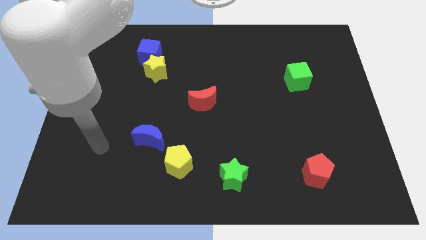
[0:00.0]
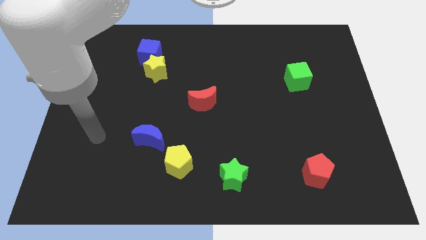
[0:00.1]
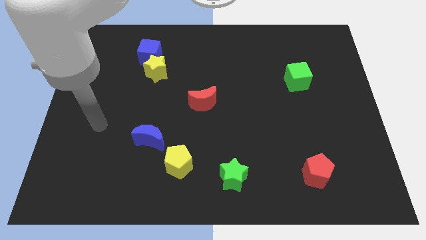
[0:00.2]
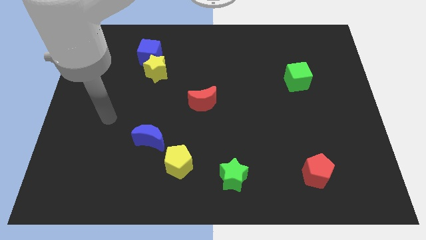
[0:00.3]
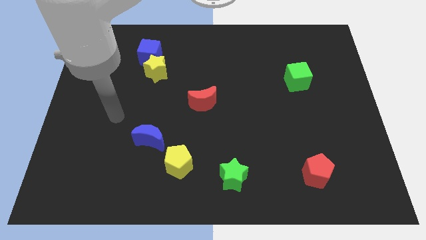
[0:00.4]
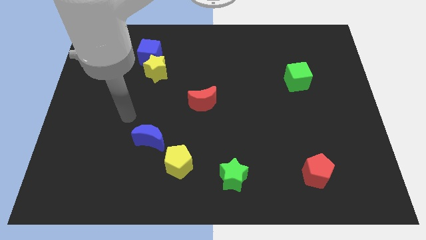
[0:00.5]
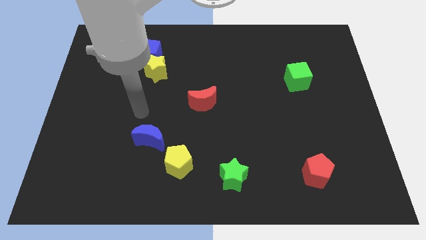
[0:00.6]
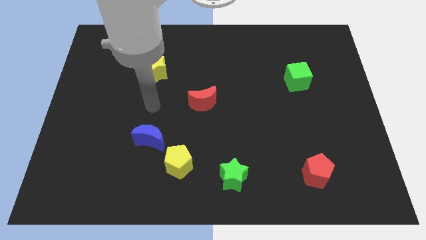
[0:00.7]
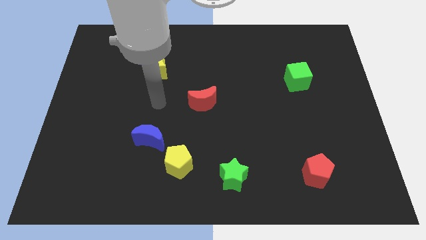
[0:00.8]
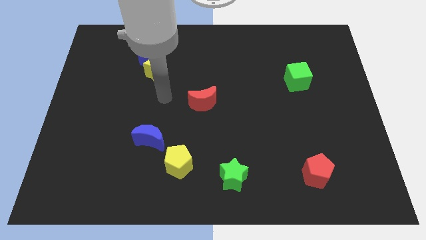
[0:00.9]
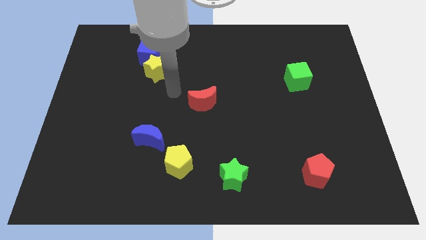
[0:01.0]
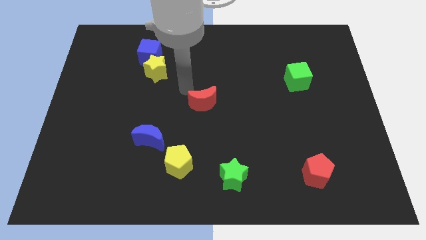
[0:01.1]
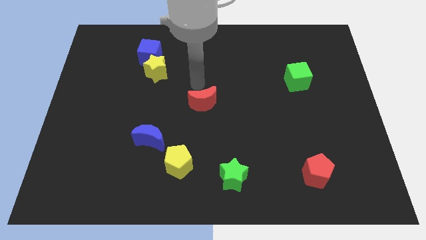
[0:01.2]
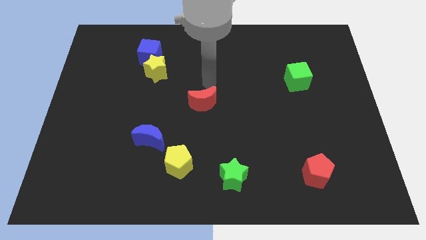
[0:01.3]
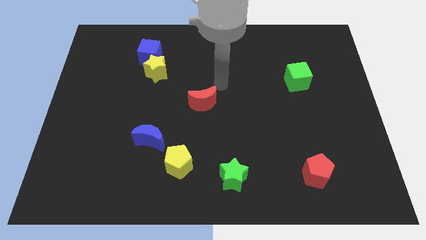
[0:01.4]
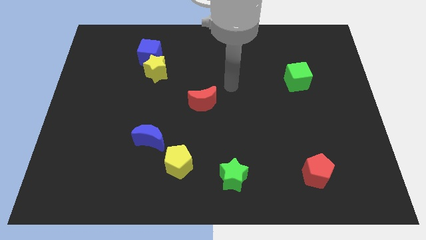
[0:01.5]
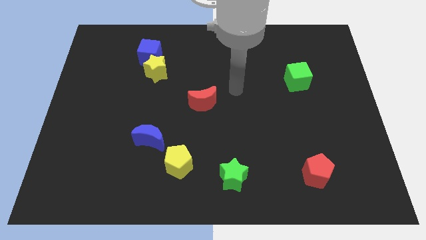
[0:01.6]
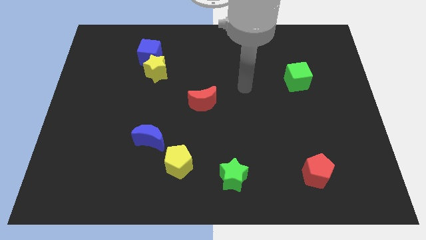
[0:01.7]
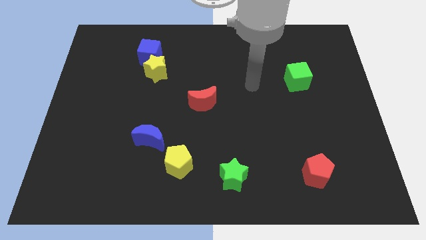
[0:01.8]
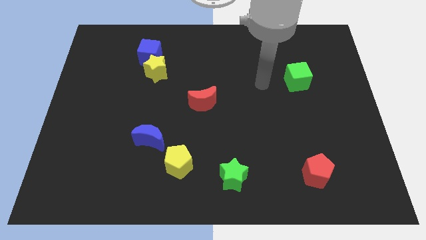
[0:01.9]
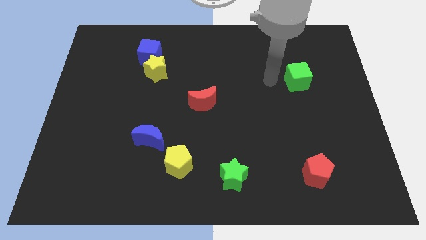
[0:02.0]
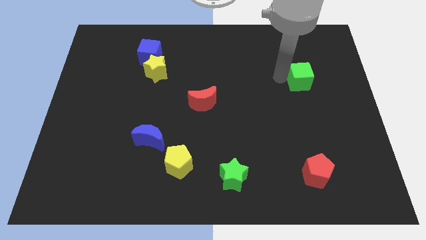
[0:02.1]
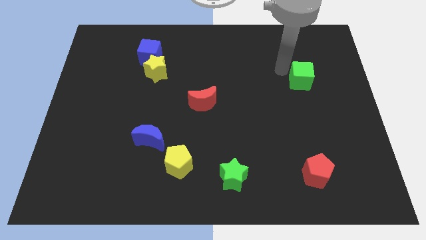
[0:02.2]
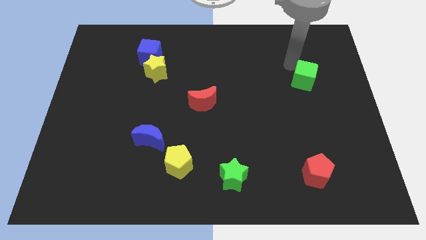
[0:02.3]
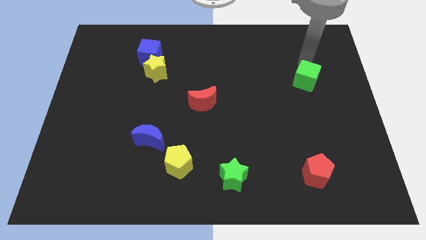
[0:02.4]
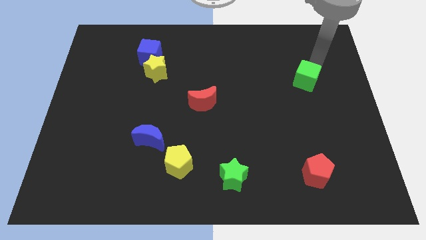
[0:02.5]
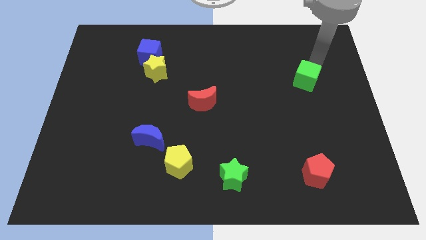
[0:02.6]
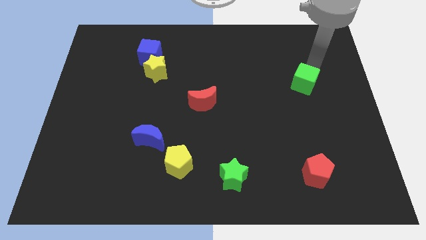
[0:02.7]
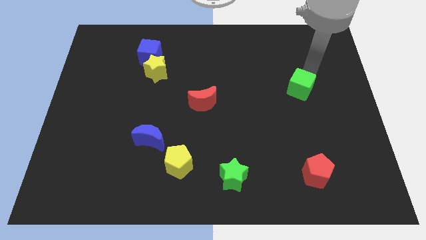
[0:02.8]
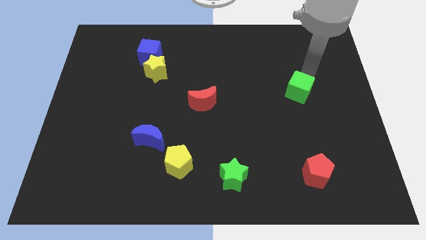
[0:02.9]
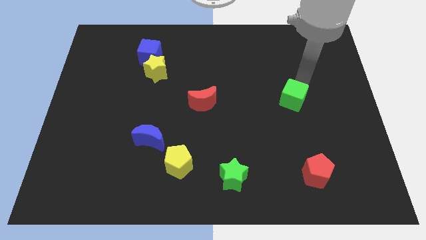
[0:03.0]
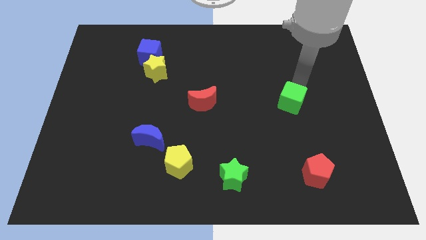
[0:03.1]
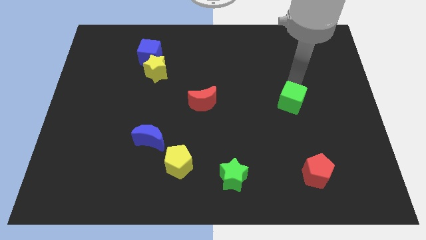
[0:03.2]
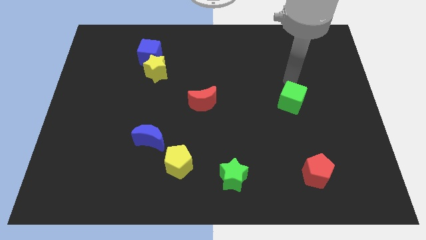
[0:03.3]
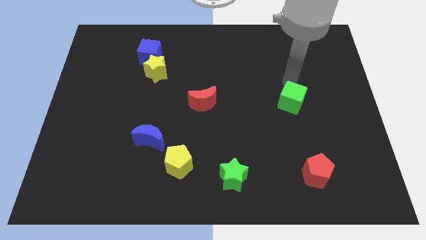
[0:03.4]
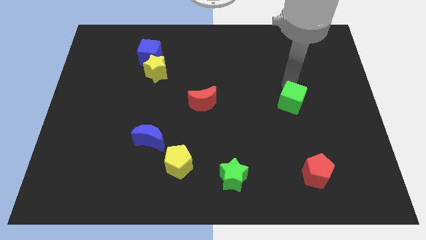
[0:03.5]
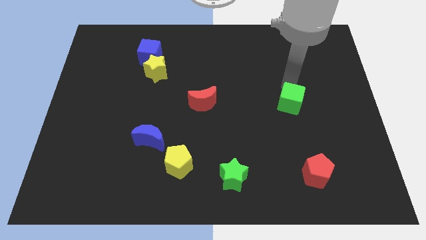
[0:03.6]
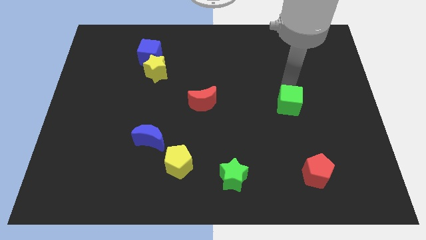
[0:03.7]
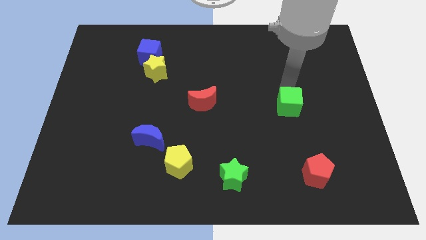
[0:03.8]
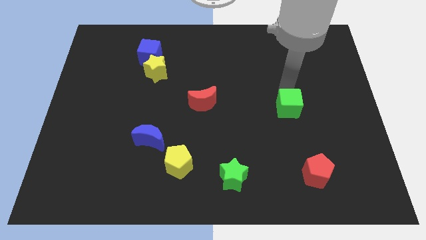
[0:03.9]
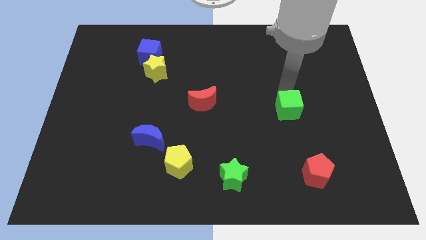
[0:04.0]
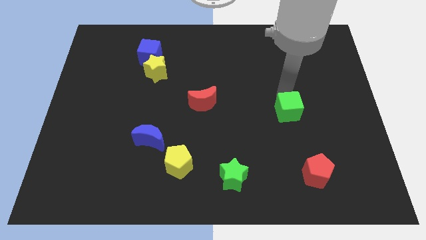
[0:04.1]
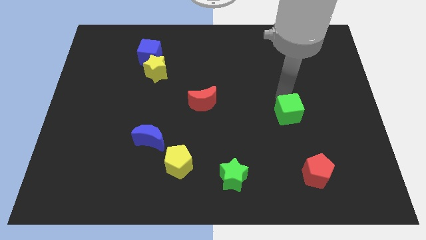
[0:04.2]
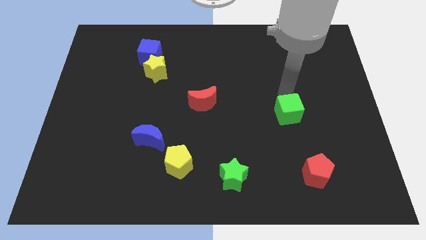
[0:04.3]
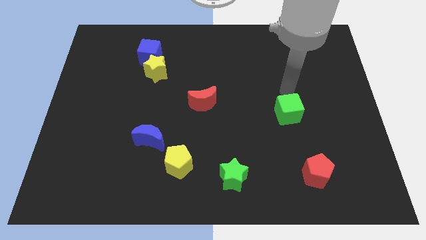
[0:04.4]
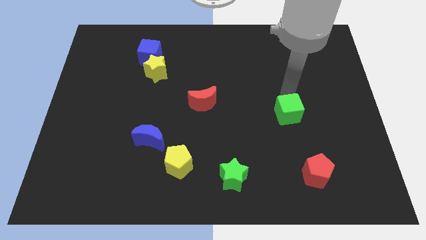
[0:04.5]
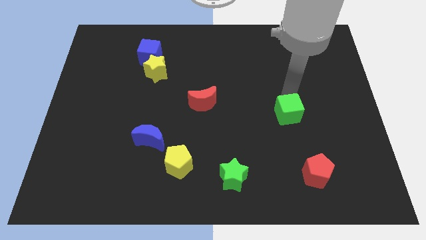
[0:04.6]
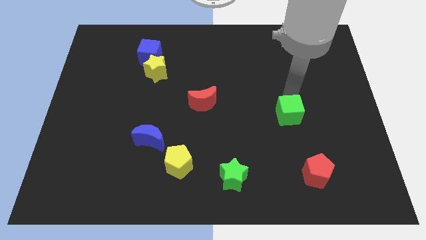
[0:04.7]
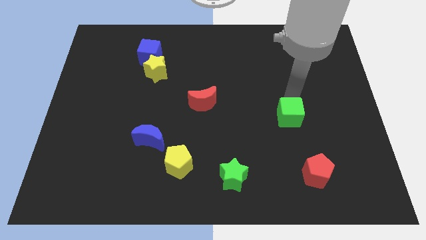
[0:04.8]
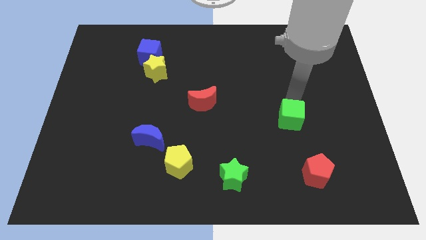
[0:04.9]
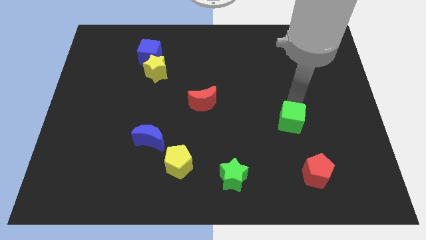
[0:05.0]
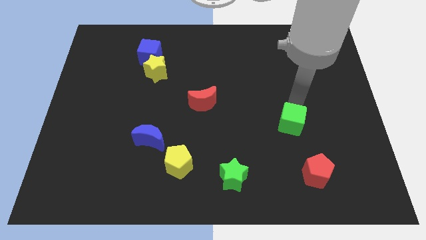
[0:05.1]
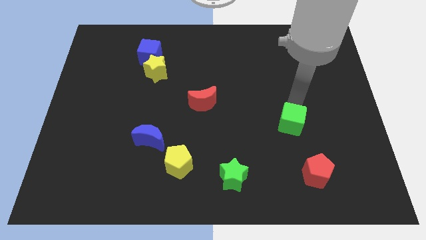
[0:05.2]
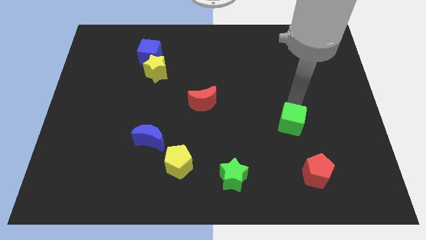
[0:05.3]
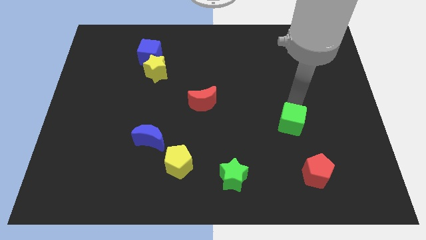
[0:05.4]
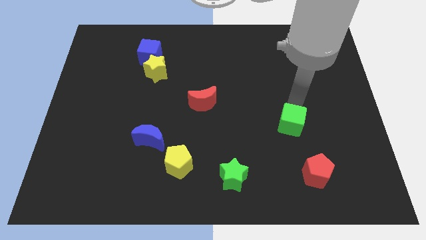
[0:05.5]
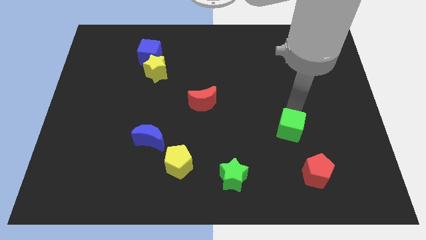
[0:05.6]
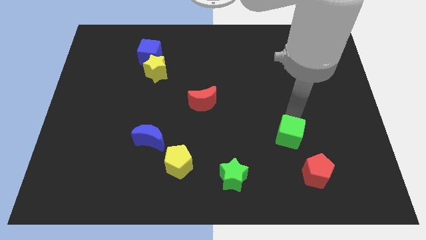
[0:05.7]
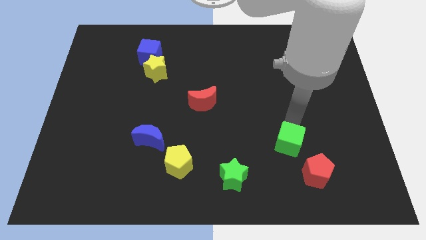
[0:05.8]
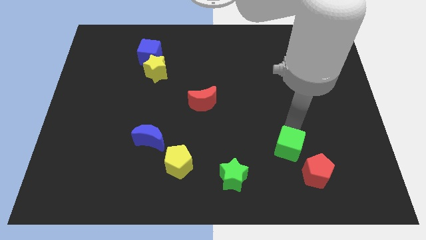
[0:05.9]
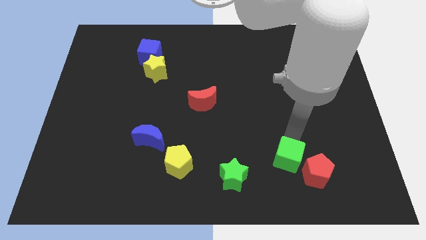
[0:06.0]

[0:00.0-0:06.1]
push the green cube left of the red pentagon
